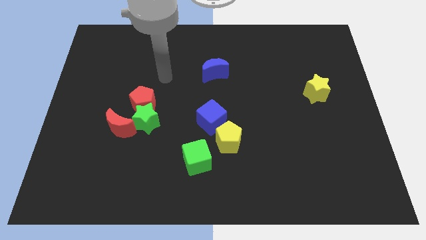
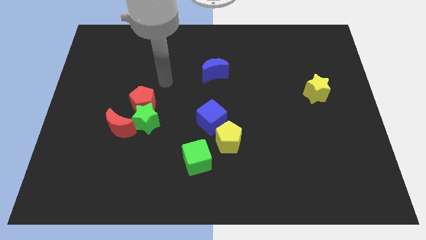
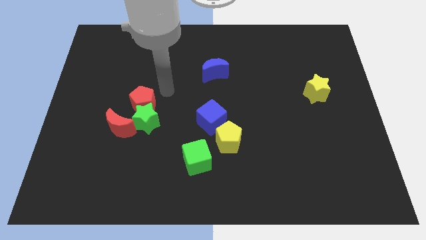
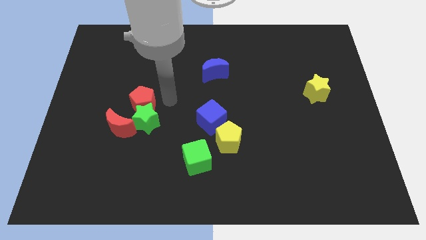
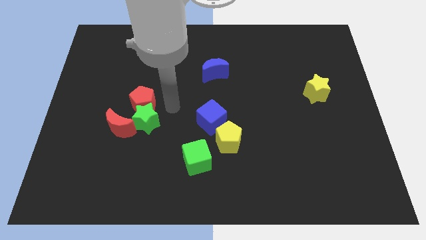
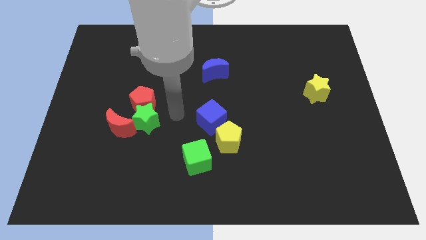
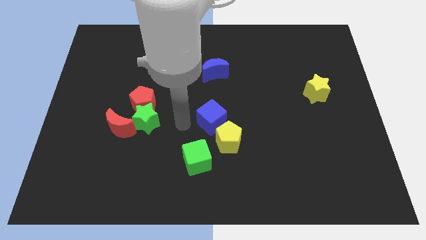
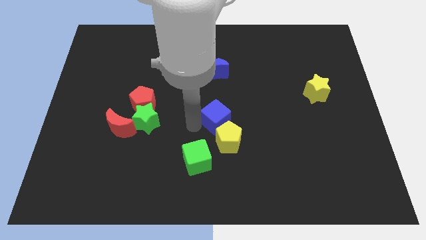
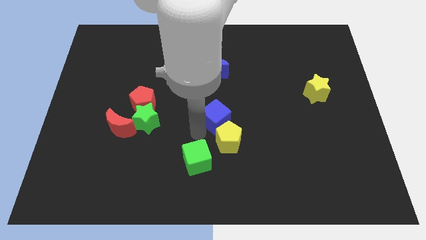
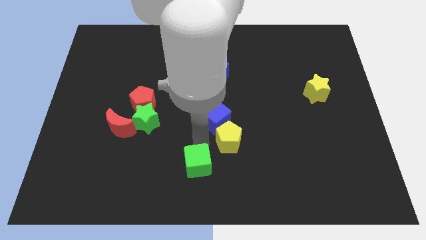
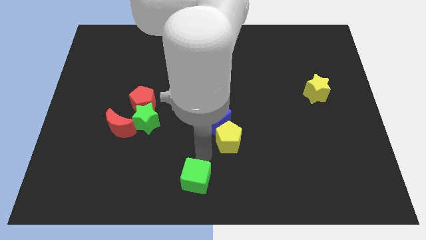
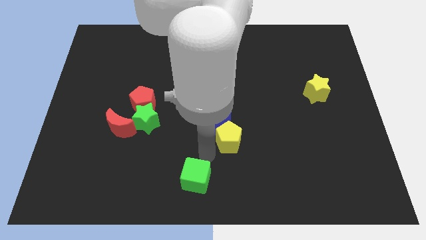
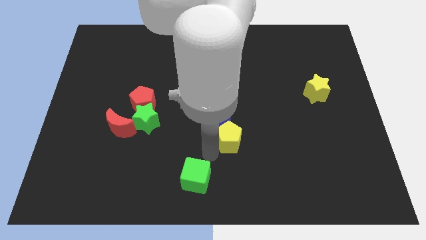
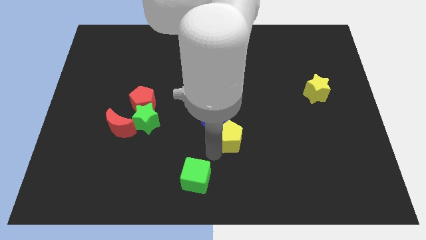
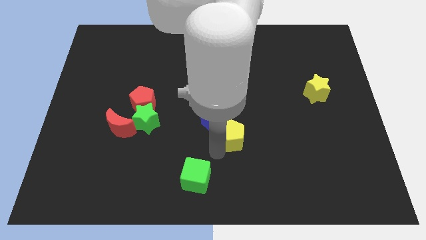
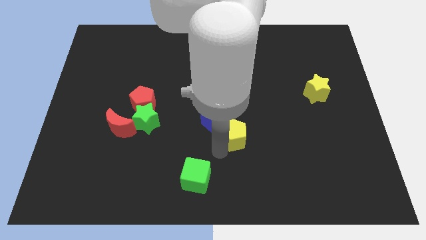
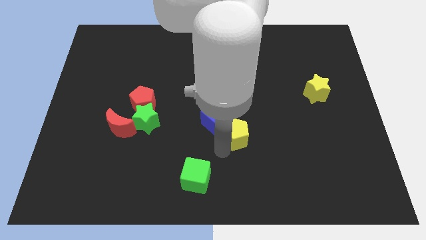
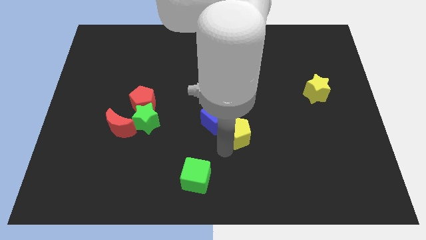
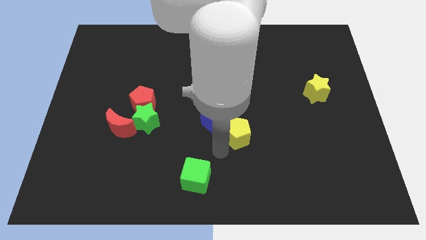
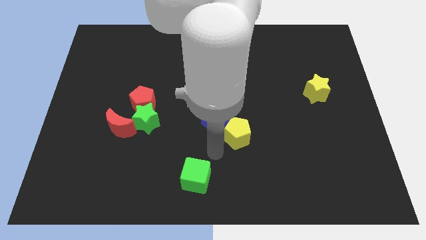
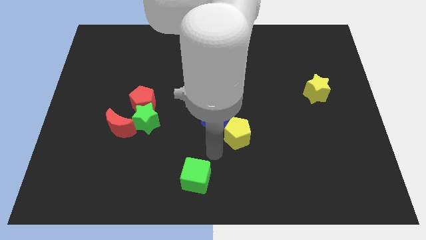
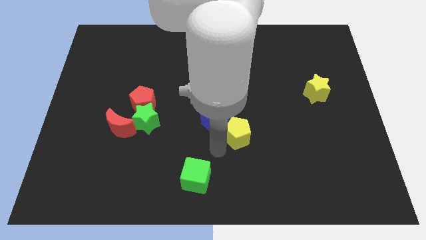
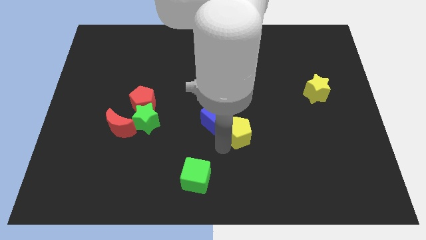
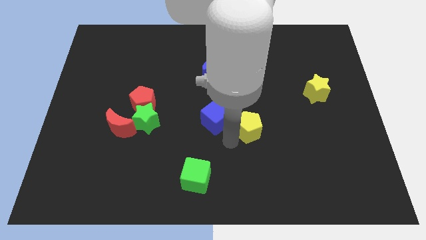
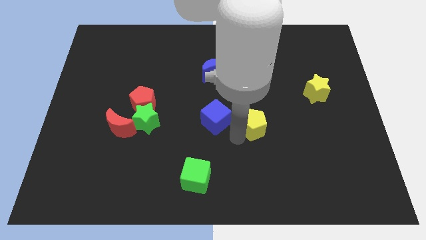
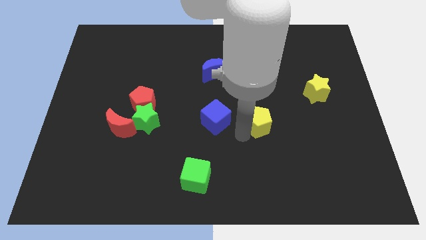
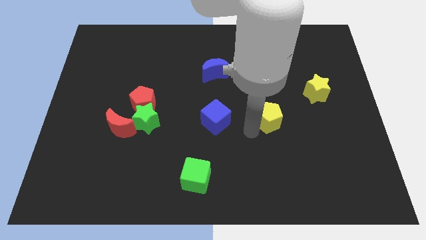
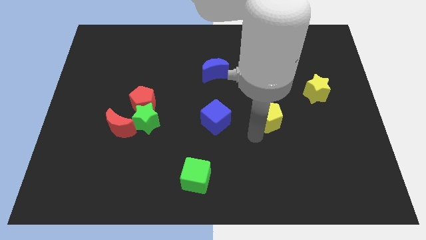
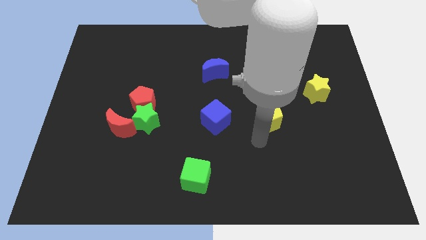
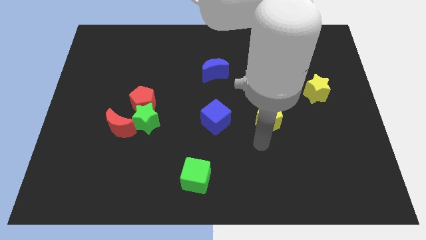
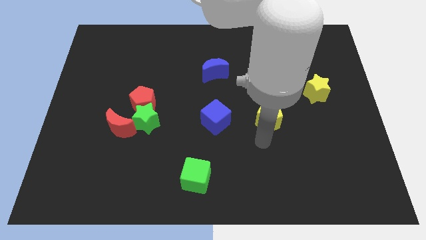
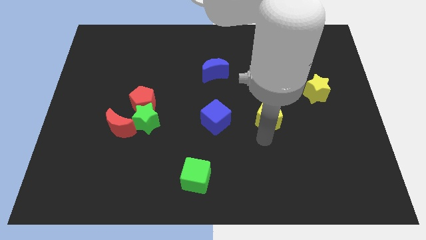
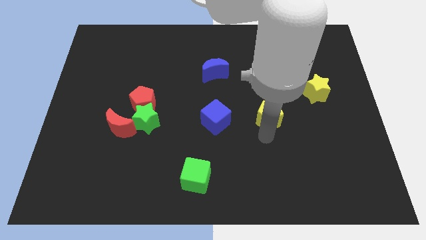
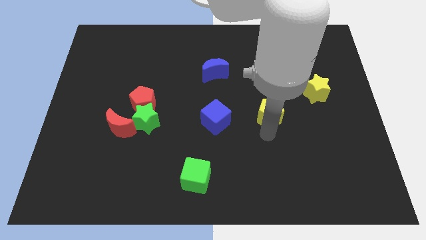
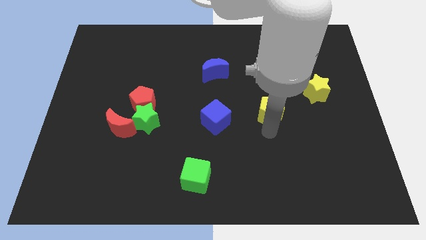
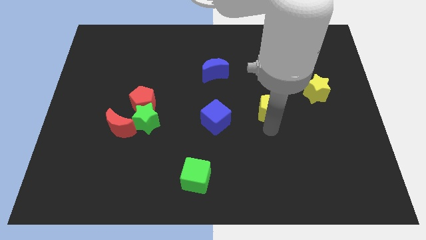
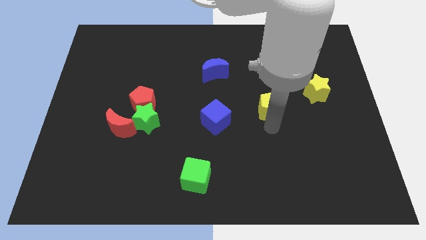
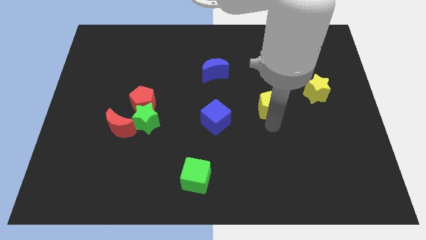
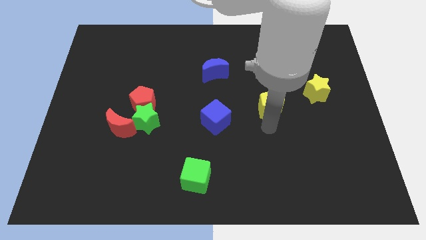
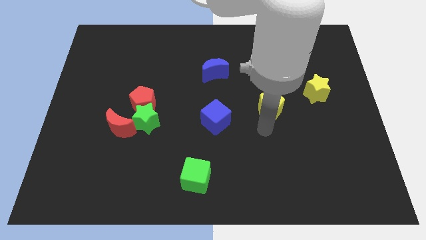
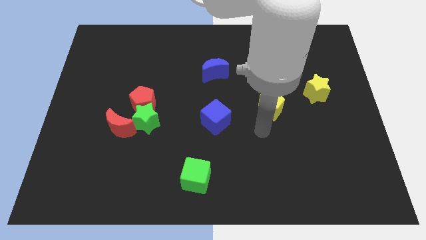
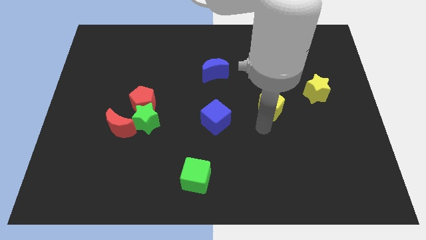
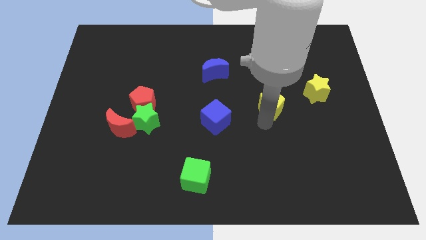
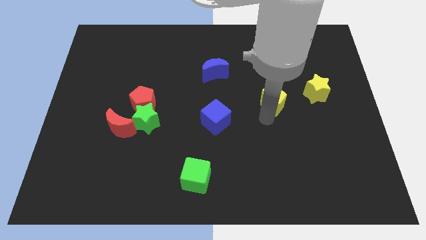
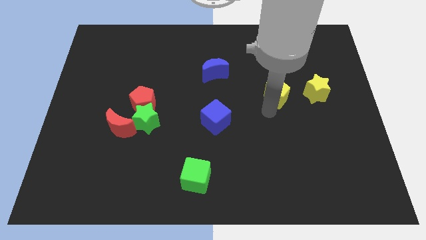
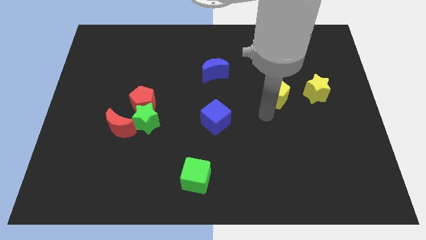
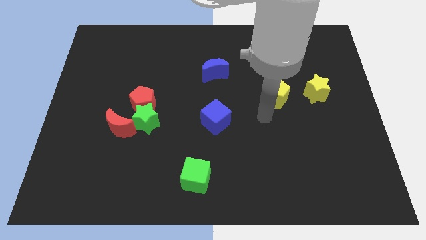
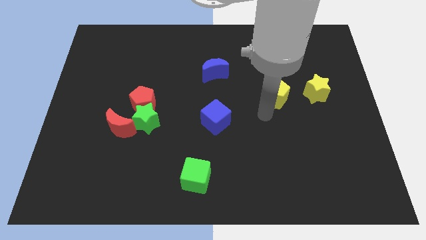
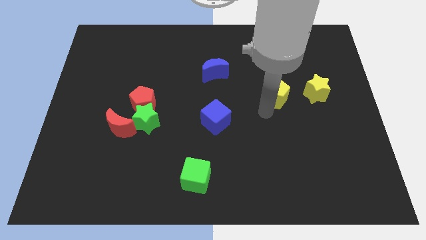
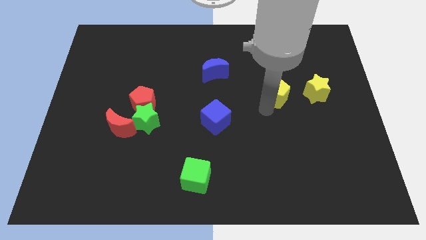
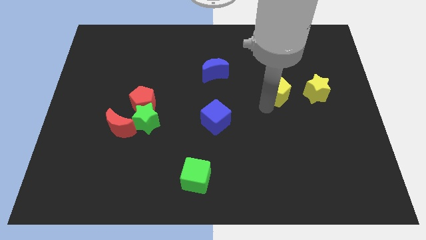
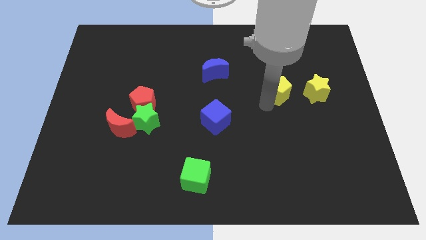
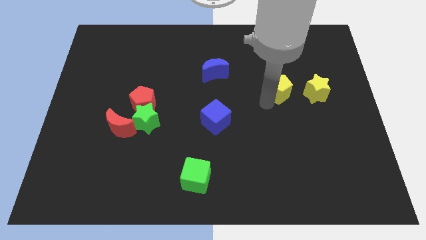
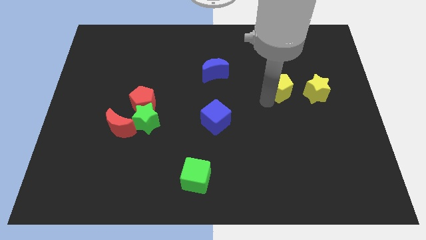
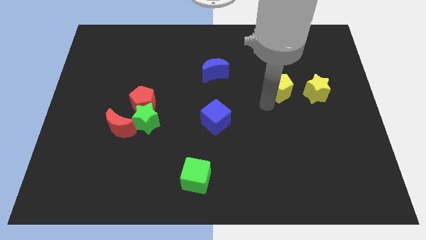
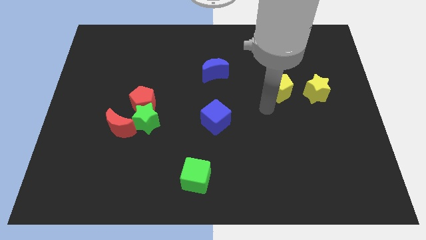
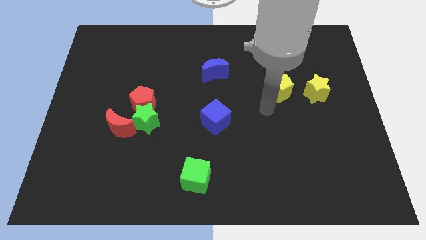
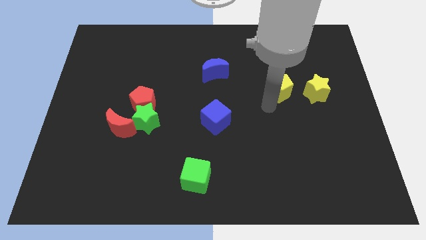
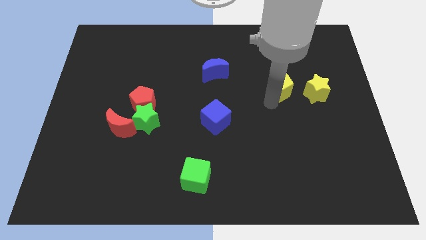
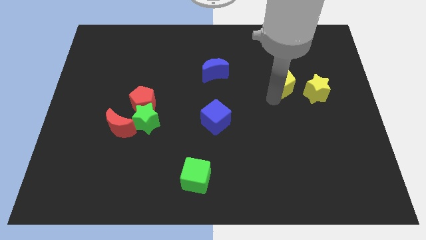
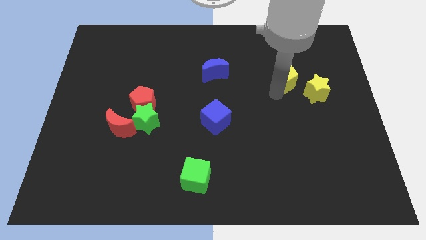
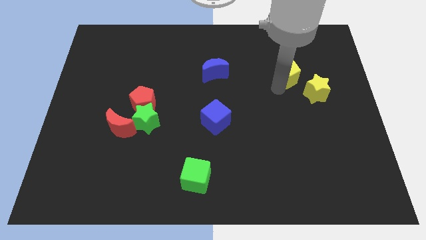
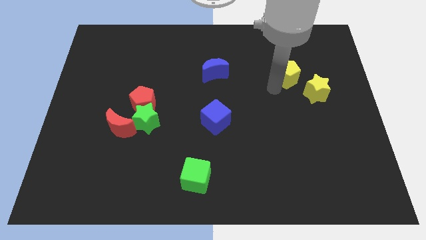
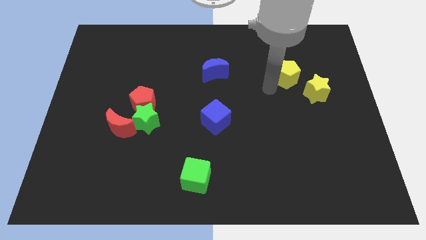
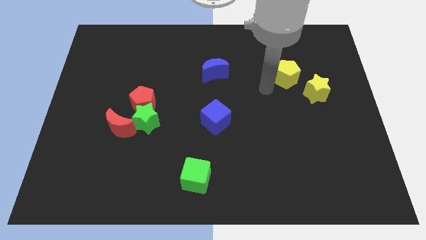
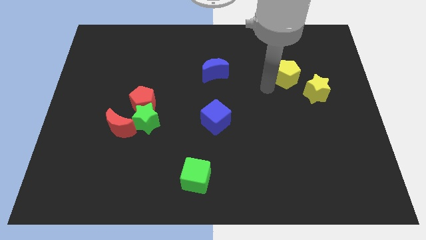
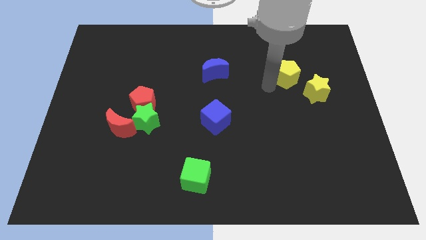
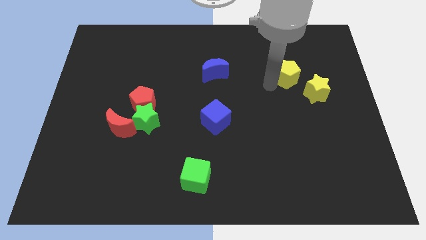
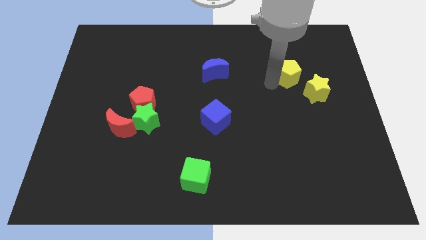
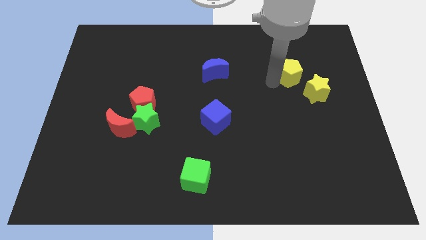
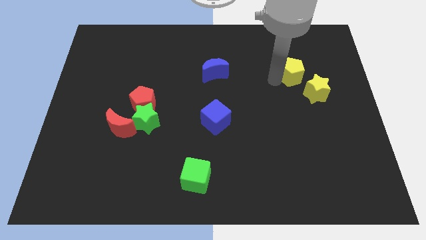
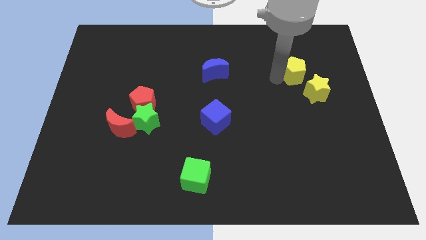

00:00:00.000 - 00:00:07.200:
slide the yellow pentagon above the yellow star
